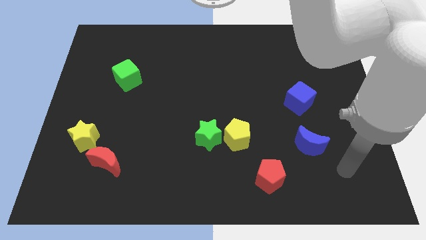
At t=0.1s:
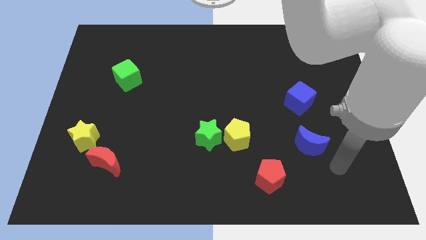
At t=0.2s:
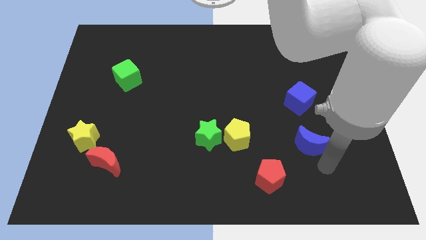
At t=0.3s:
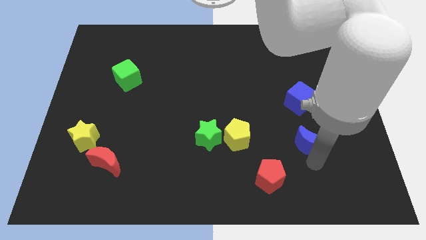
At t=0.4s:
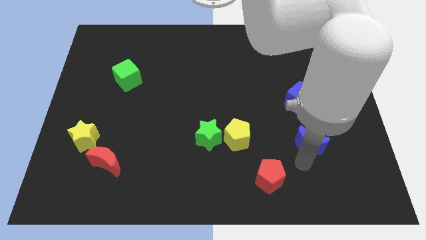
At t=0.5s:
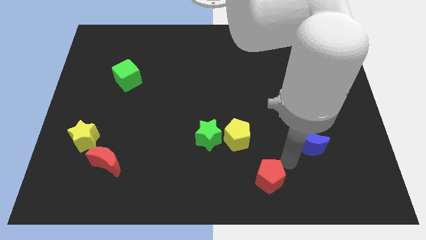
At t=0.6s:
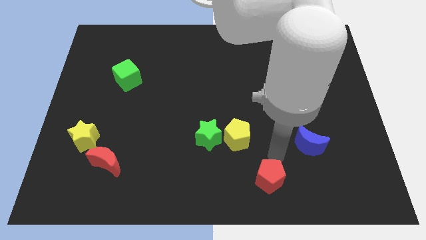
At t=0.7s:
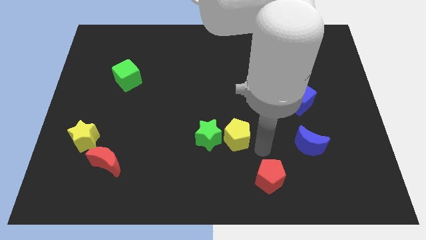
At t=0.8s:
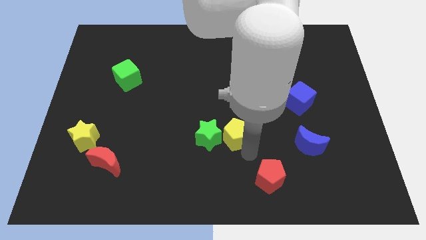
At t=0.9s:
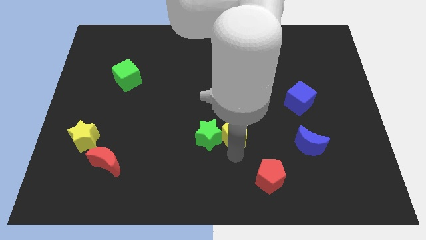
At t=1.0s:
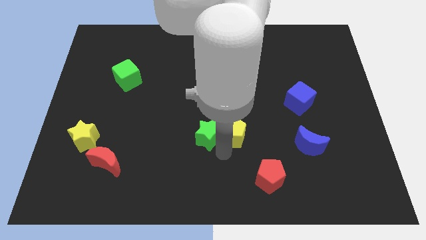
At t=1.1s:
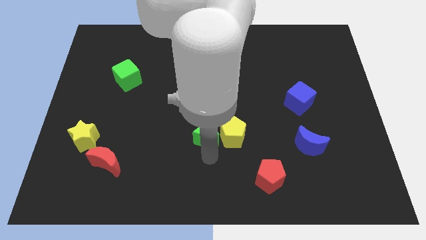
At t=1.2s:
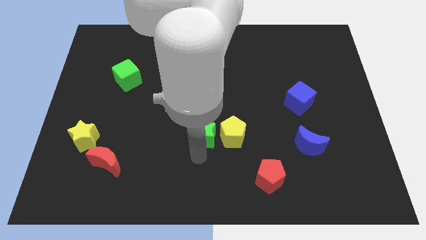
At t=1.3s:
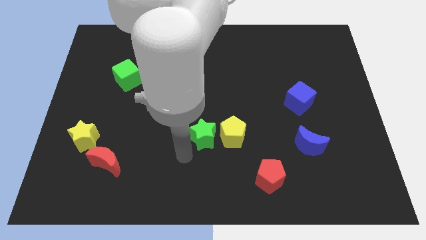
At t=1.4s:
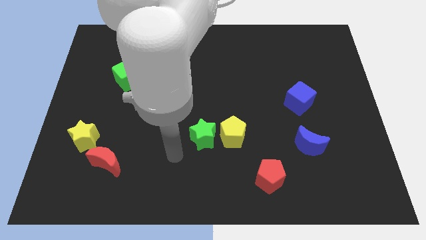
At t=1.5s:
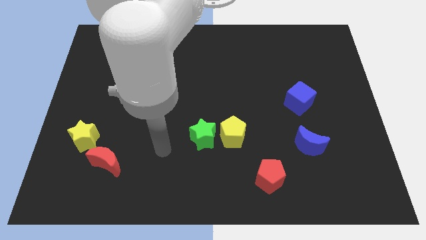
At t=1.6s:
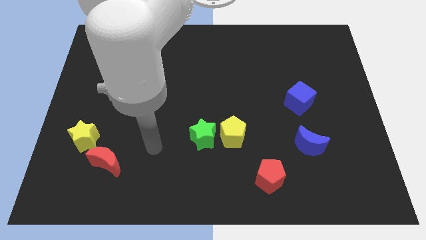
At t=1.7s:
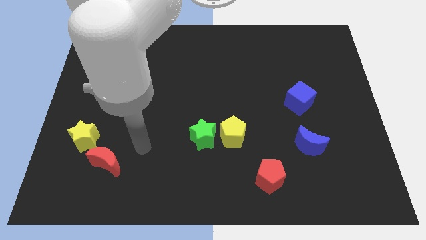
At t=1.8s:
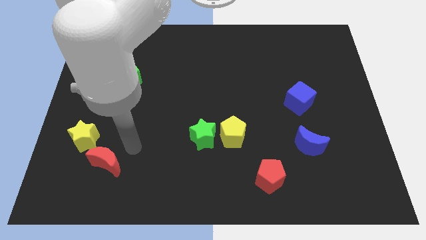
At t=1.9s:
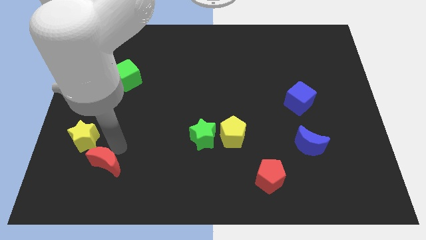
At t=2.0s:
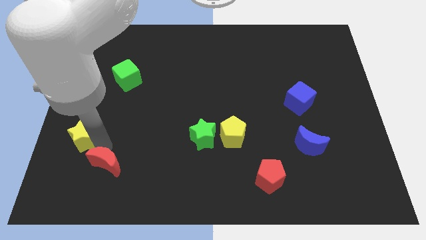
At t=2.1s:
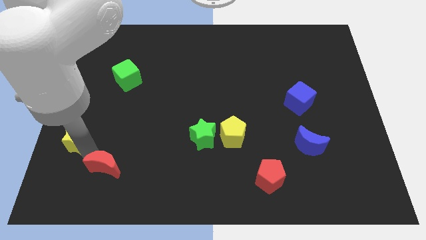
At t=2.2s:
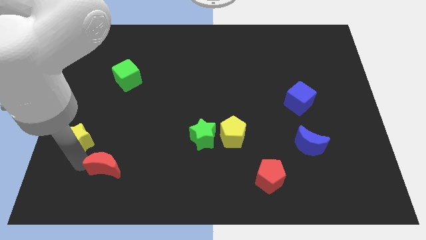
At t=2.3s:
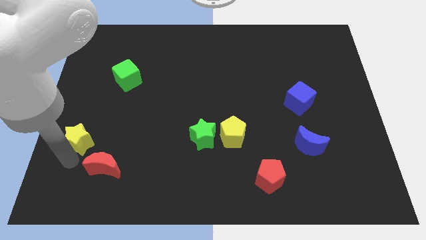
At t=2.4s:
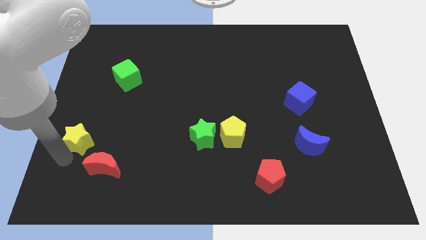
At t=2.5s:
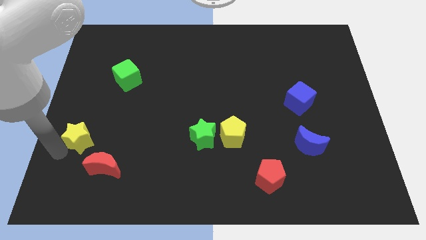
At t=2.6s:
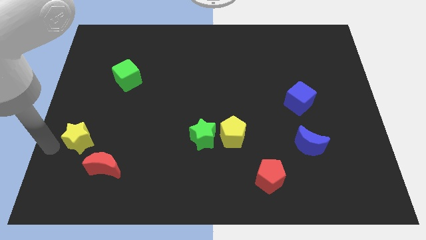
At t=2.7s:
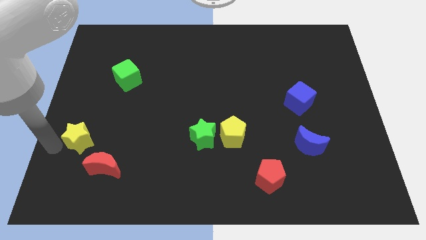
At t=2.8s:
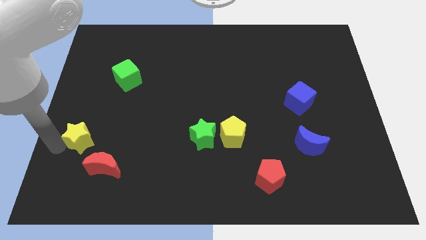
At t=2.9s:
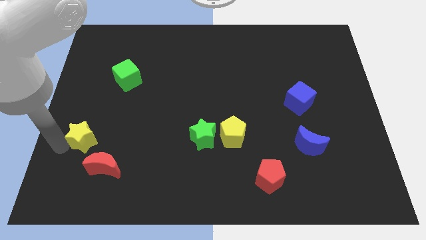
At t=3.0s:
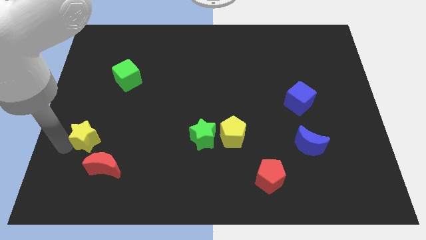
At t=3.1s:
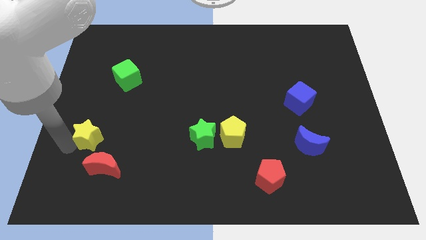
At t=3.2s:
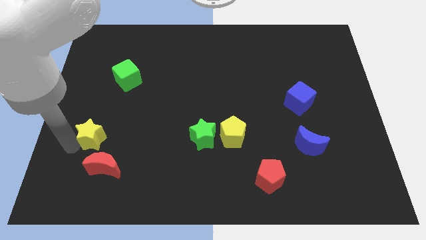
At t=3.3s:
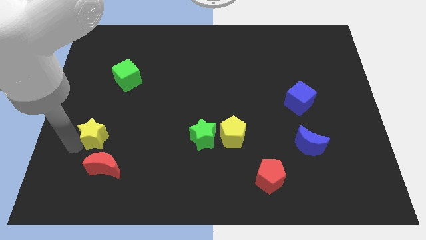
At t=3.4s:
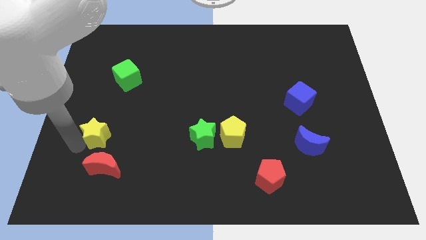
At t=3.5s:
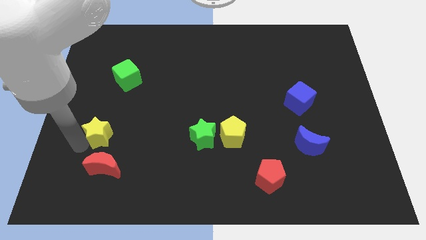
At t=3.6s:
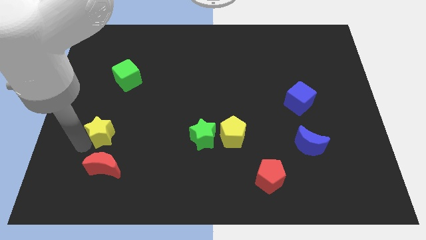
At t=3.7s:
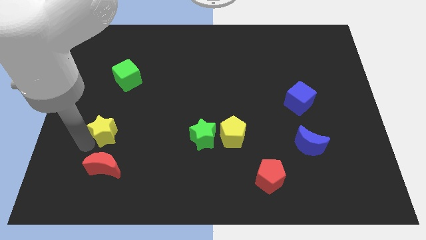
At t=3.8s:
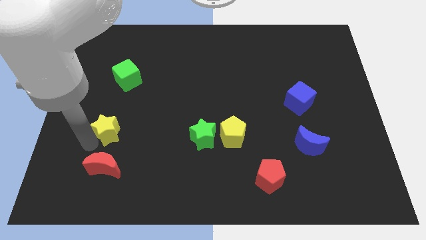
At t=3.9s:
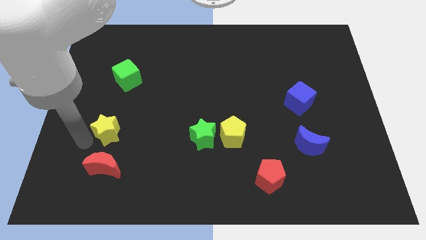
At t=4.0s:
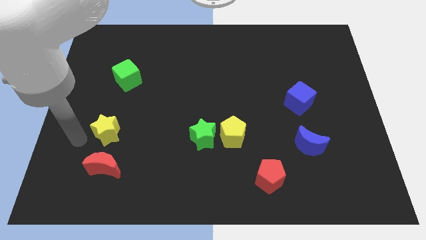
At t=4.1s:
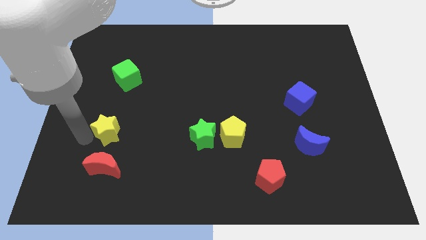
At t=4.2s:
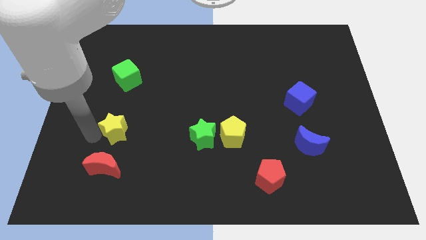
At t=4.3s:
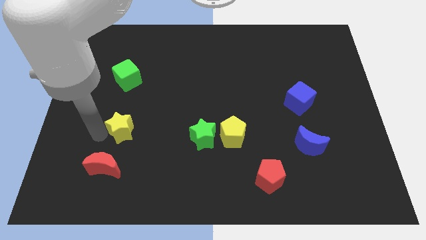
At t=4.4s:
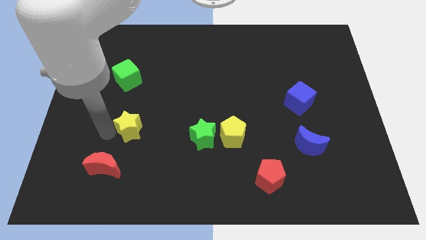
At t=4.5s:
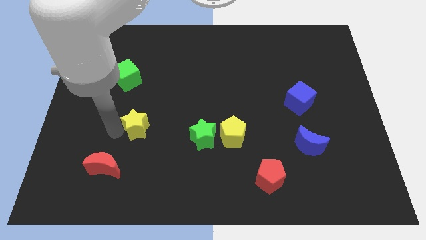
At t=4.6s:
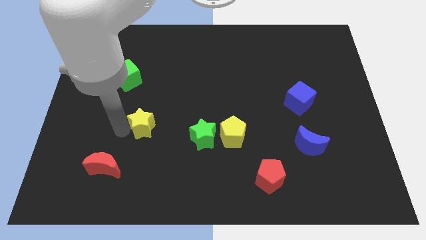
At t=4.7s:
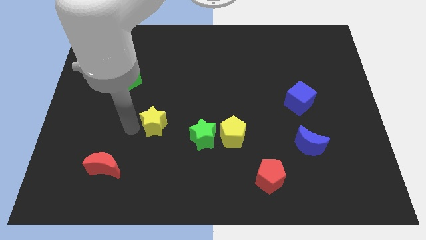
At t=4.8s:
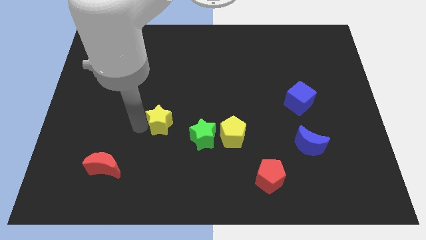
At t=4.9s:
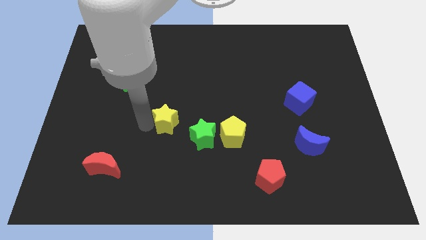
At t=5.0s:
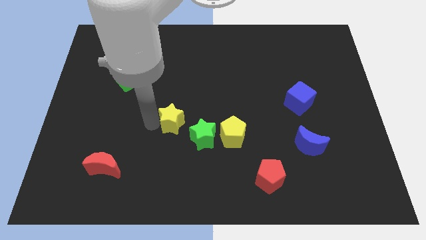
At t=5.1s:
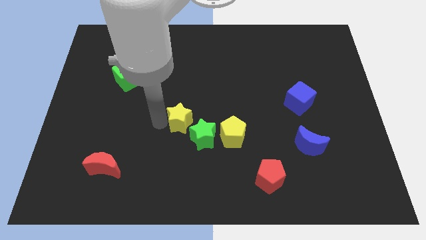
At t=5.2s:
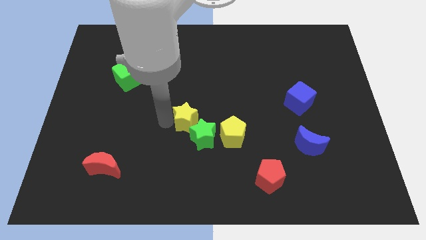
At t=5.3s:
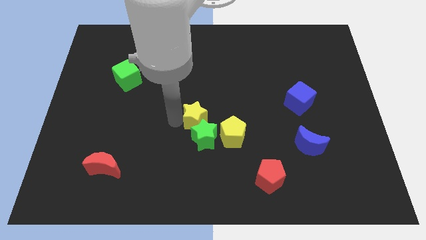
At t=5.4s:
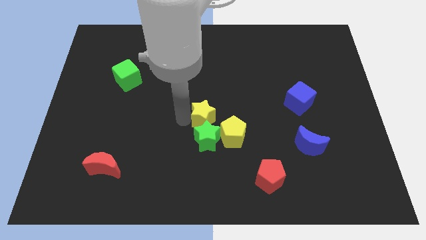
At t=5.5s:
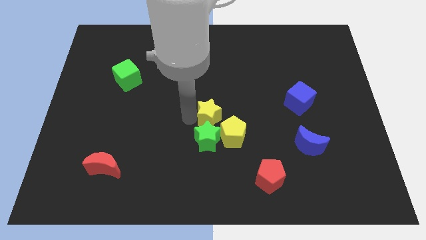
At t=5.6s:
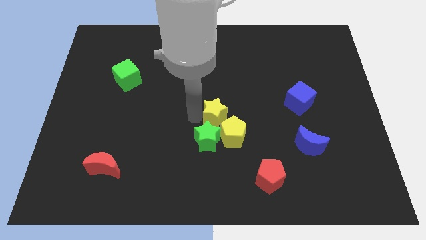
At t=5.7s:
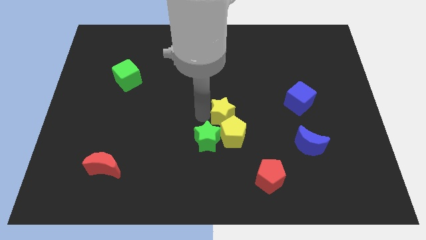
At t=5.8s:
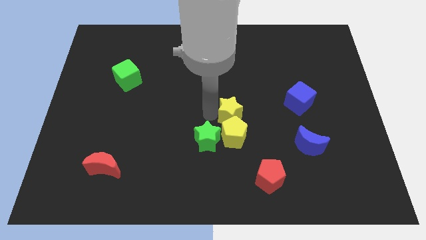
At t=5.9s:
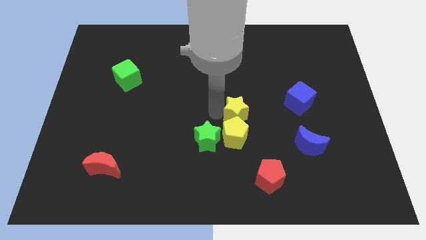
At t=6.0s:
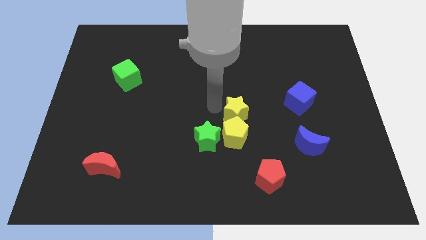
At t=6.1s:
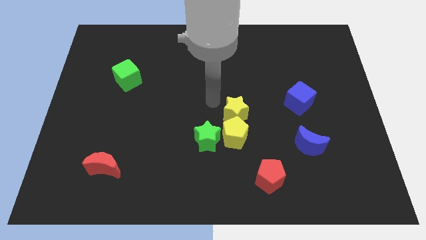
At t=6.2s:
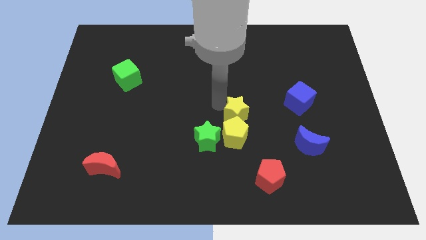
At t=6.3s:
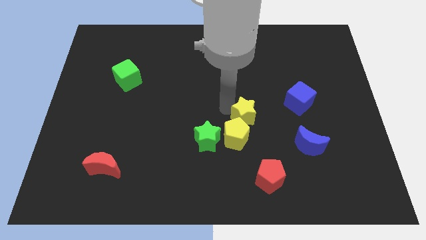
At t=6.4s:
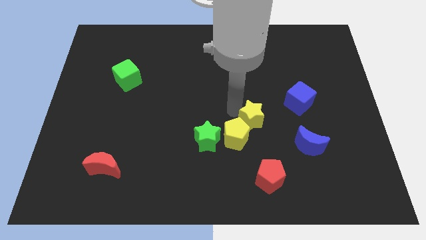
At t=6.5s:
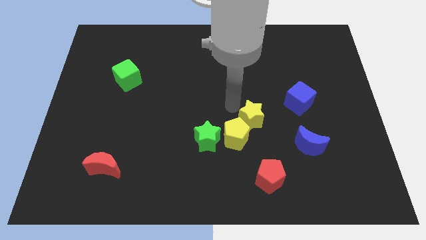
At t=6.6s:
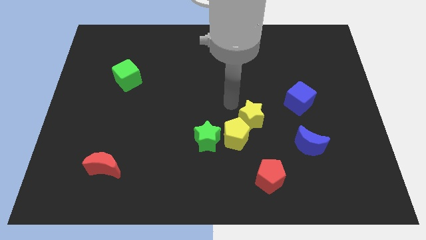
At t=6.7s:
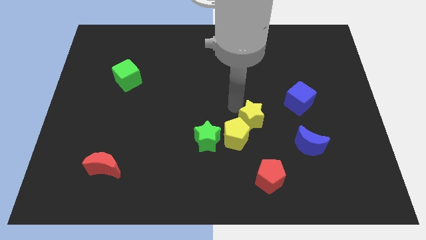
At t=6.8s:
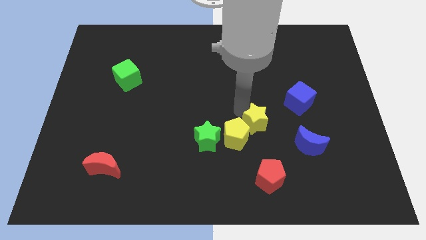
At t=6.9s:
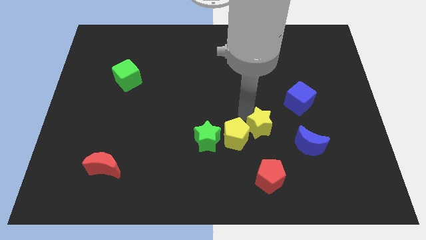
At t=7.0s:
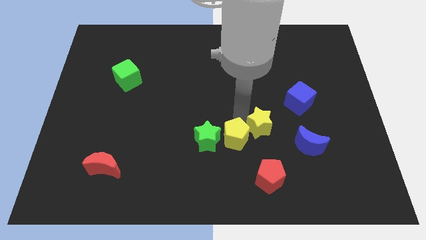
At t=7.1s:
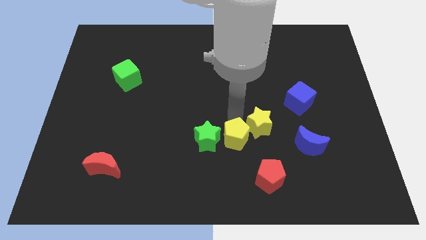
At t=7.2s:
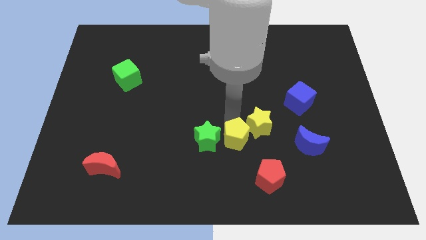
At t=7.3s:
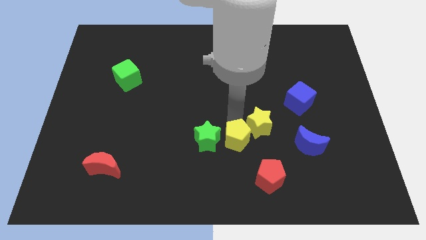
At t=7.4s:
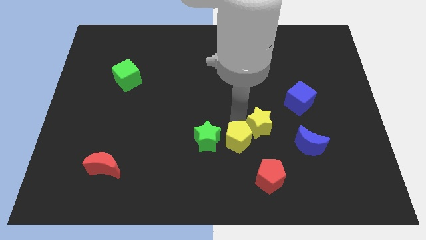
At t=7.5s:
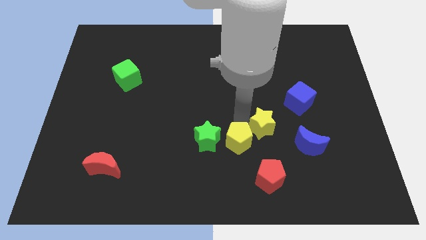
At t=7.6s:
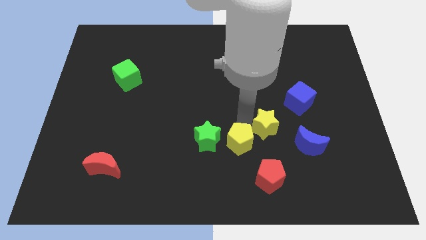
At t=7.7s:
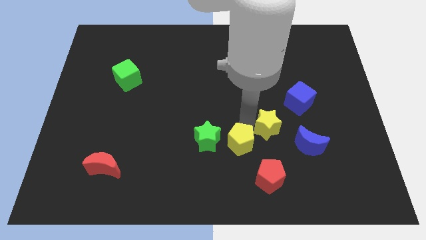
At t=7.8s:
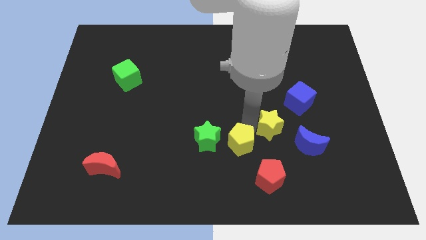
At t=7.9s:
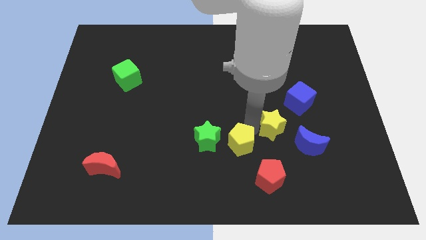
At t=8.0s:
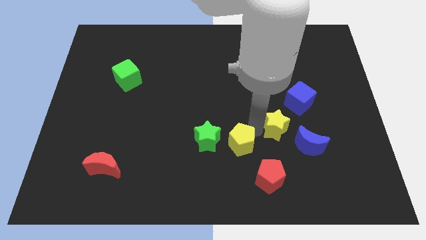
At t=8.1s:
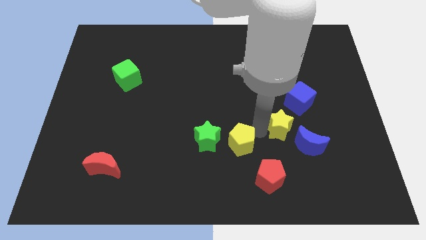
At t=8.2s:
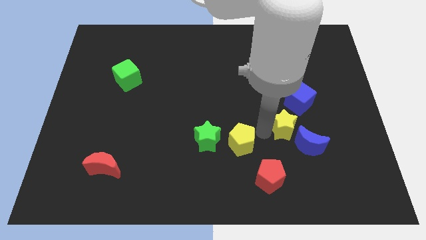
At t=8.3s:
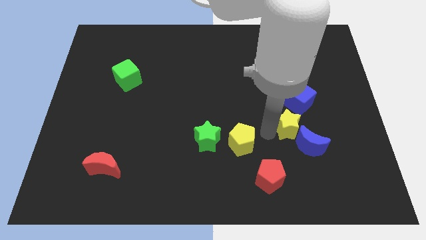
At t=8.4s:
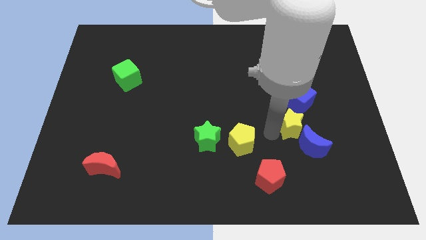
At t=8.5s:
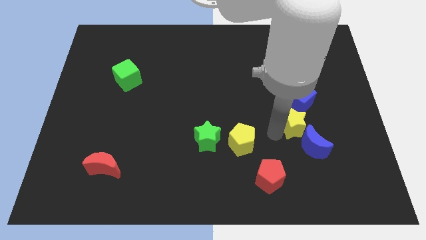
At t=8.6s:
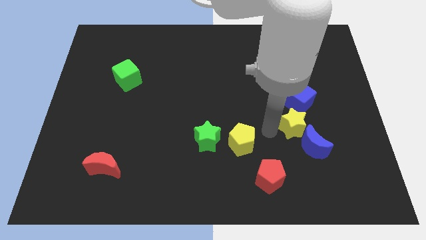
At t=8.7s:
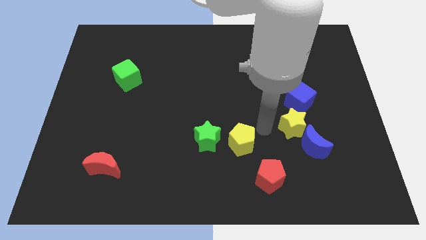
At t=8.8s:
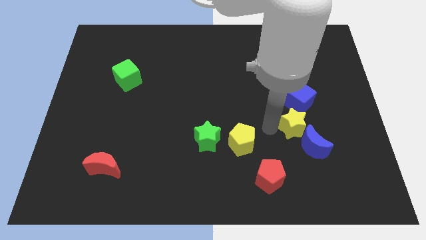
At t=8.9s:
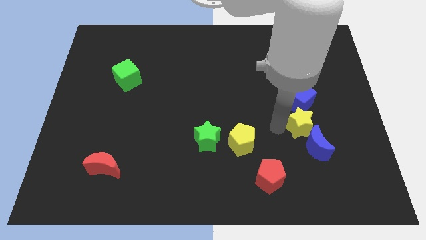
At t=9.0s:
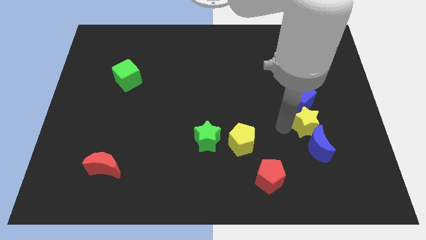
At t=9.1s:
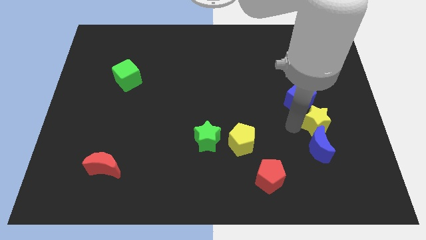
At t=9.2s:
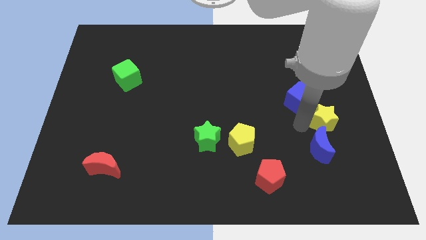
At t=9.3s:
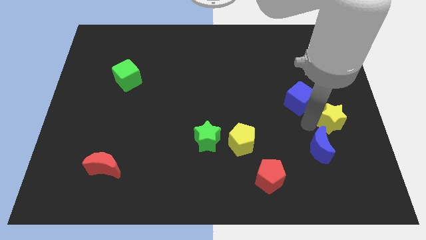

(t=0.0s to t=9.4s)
move the yellow star to the center right
